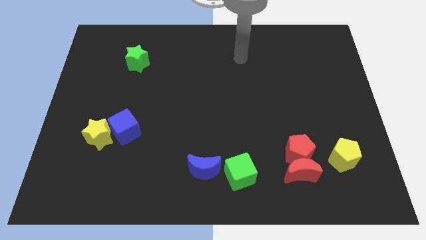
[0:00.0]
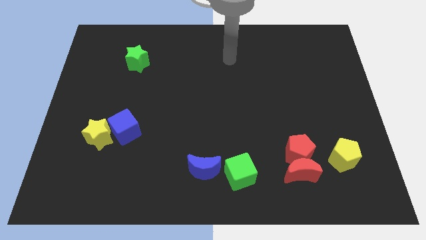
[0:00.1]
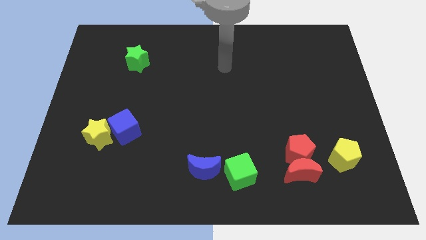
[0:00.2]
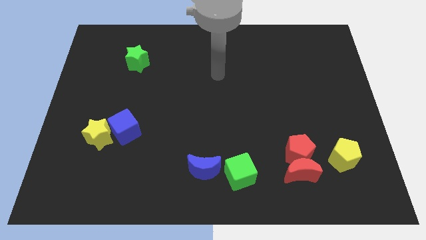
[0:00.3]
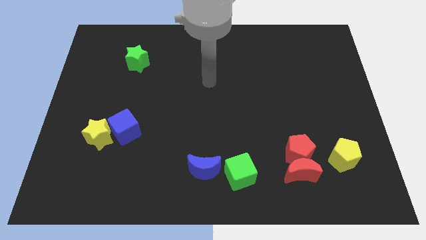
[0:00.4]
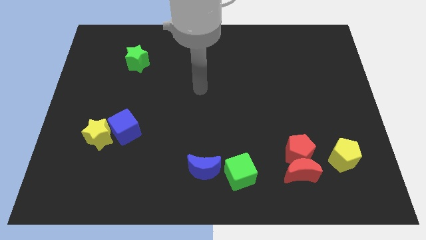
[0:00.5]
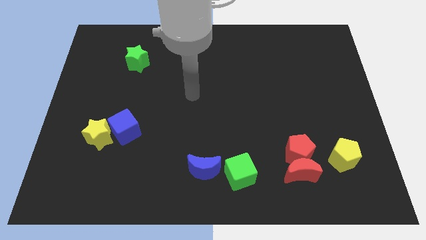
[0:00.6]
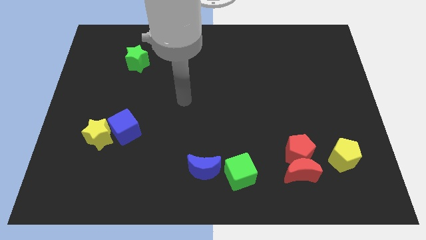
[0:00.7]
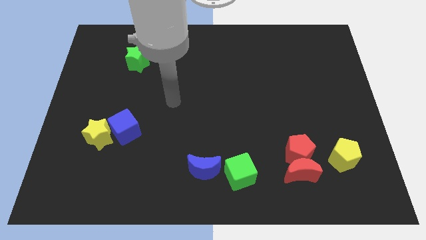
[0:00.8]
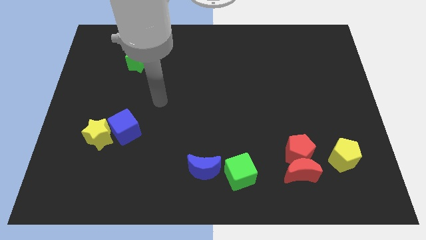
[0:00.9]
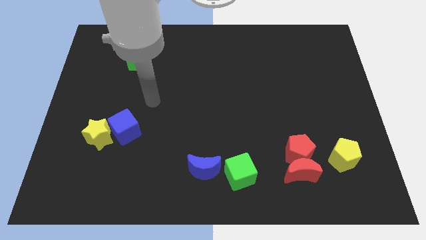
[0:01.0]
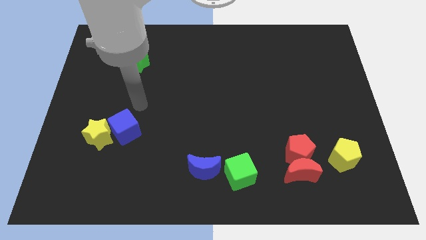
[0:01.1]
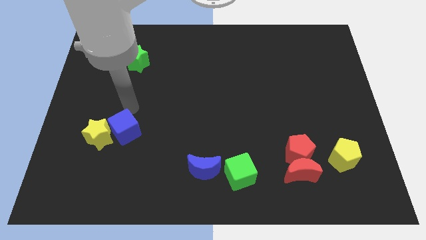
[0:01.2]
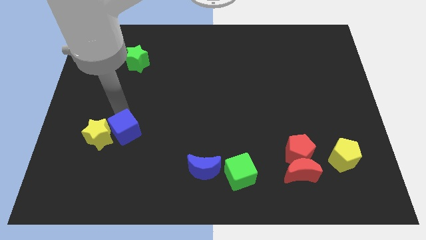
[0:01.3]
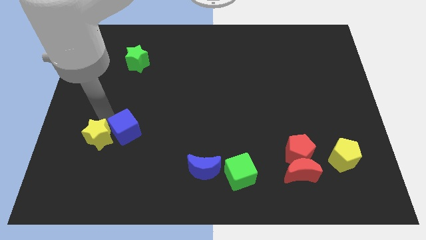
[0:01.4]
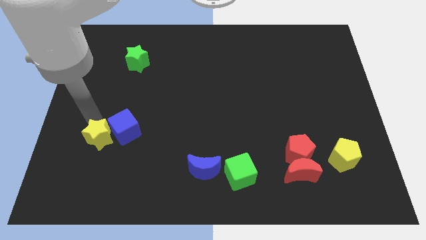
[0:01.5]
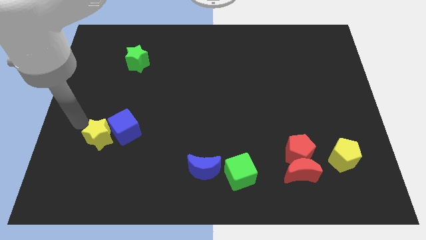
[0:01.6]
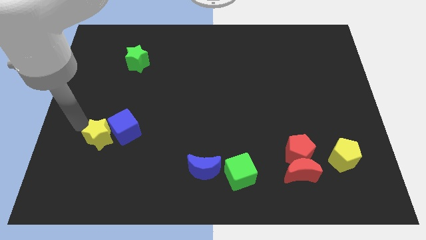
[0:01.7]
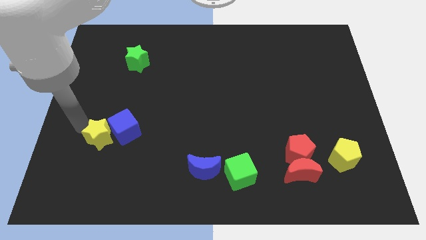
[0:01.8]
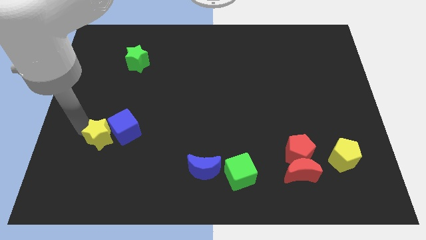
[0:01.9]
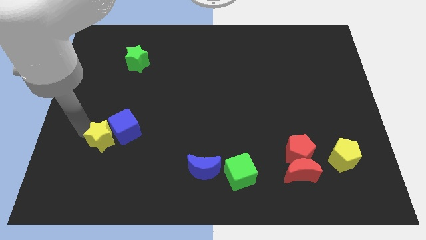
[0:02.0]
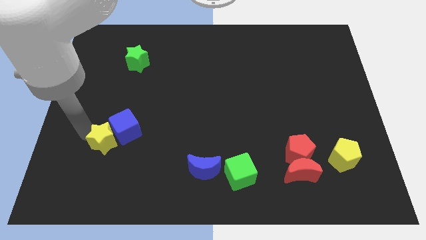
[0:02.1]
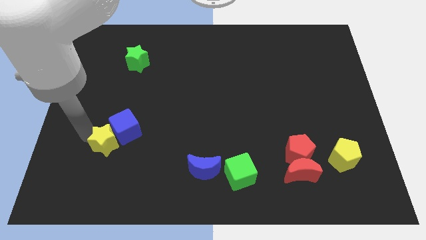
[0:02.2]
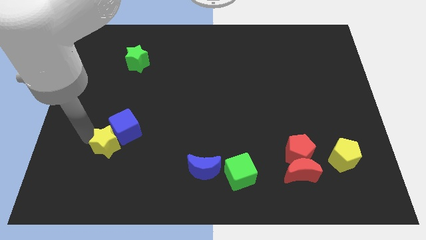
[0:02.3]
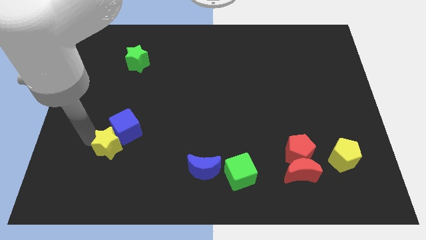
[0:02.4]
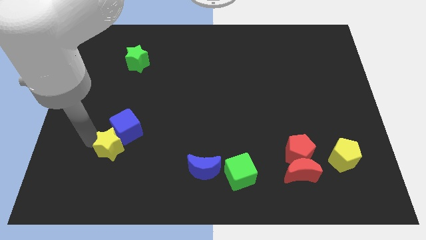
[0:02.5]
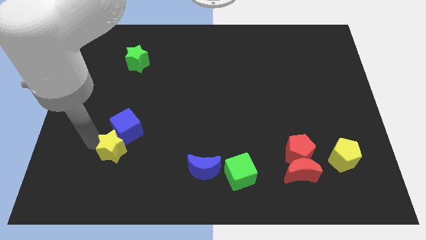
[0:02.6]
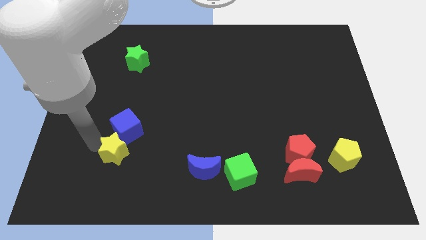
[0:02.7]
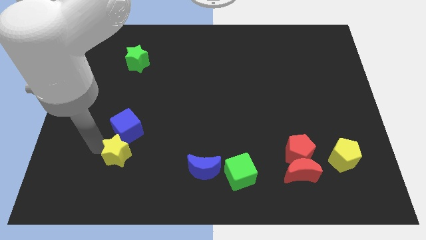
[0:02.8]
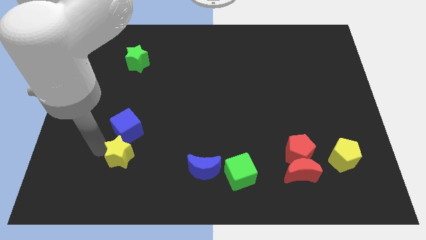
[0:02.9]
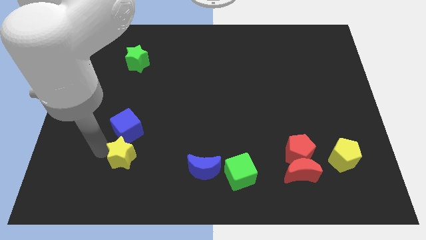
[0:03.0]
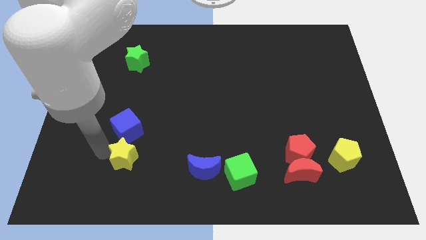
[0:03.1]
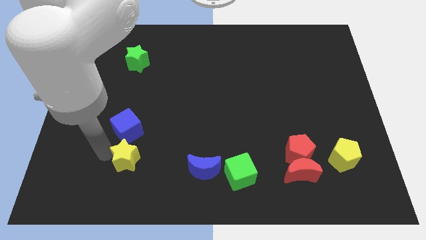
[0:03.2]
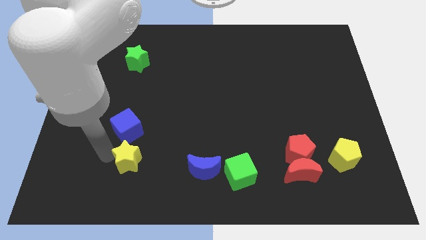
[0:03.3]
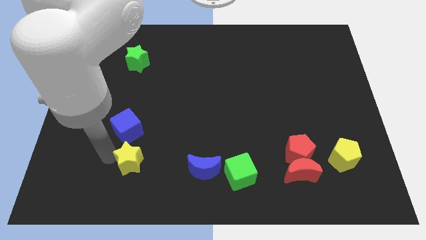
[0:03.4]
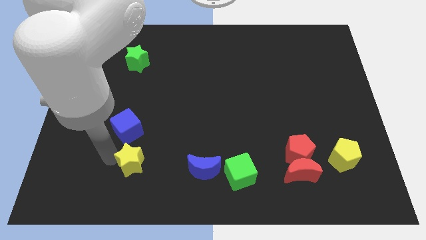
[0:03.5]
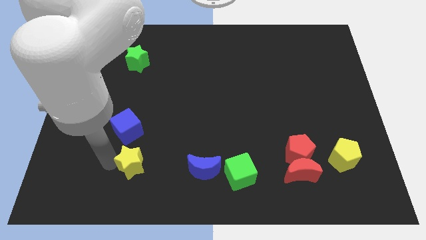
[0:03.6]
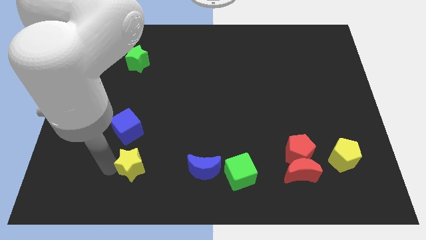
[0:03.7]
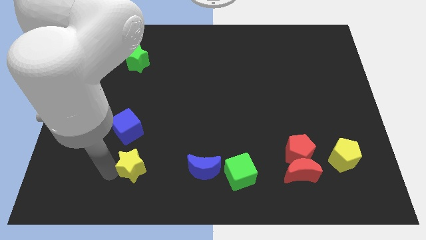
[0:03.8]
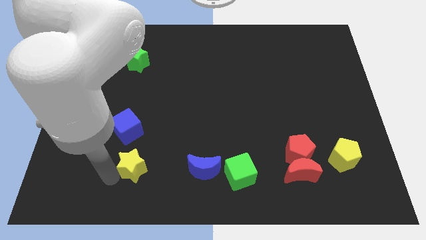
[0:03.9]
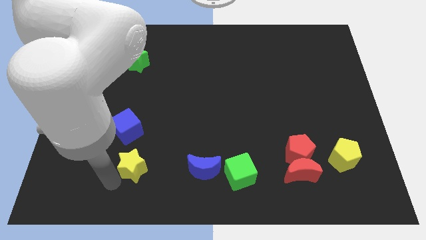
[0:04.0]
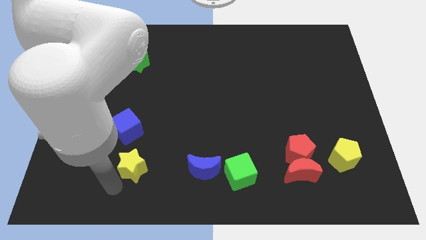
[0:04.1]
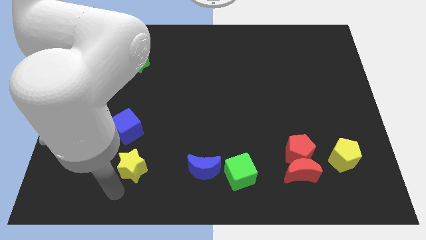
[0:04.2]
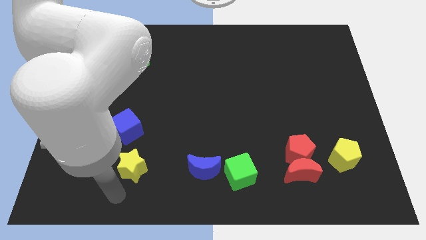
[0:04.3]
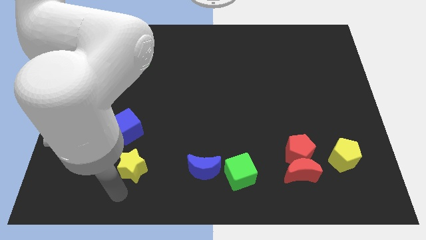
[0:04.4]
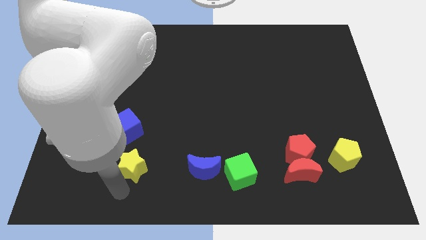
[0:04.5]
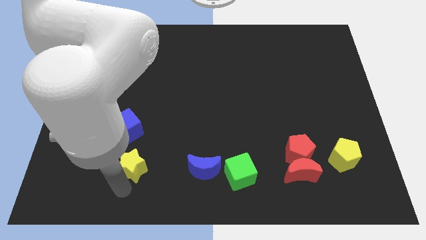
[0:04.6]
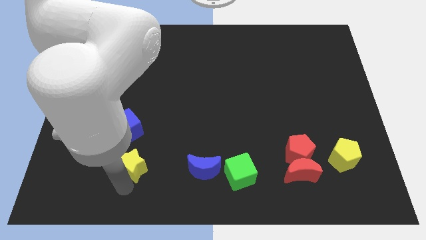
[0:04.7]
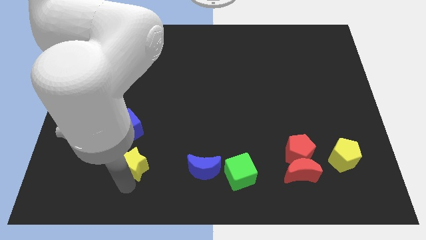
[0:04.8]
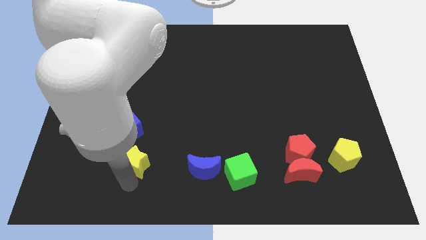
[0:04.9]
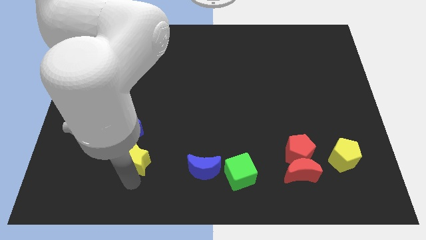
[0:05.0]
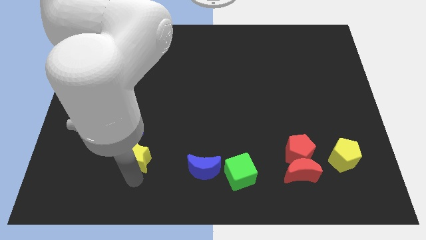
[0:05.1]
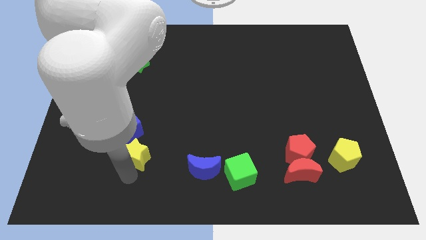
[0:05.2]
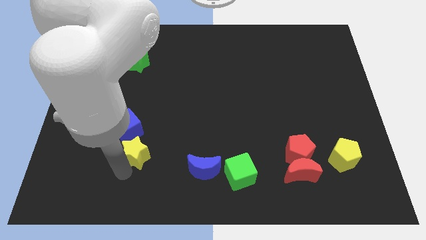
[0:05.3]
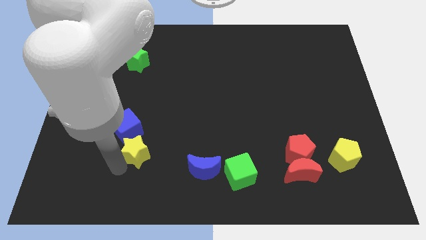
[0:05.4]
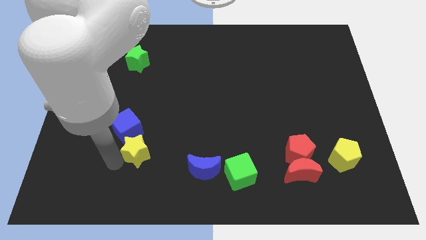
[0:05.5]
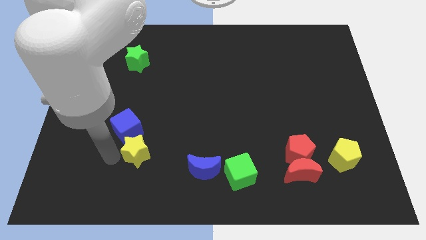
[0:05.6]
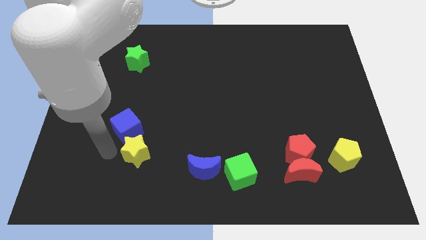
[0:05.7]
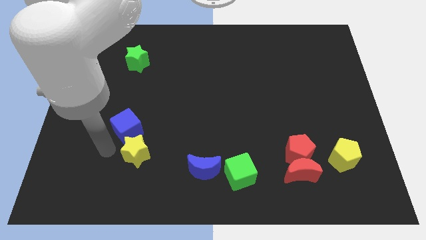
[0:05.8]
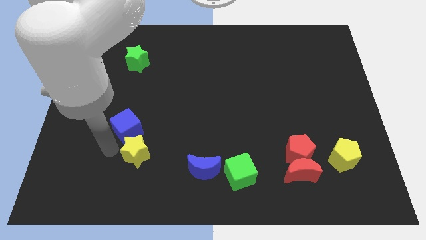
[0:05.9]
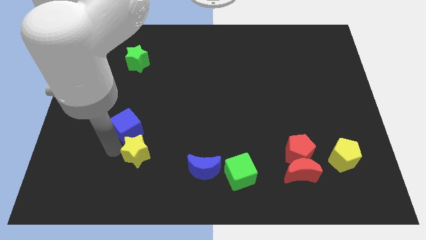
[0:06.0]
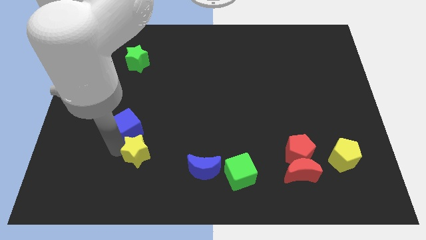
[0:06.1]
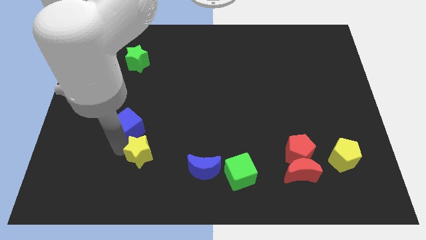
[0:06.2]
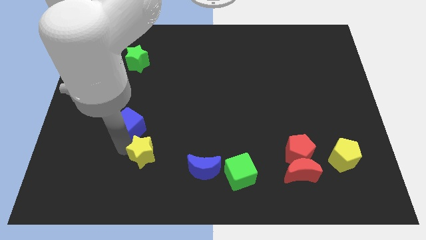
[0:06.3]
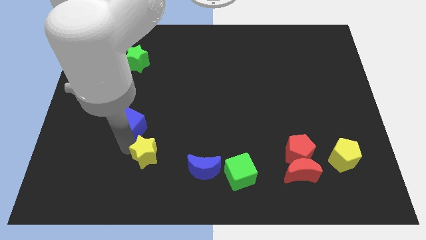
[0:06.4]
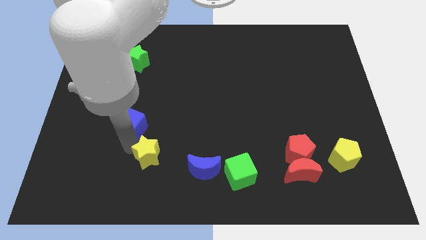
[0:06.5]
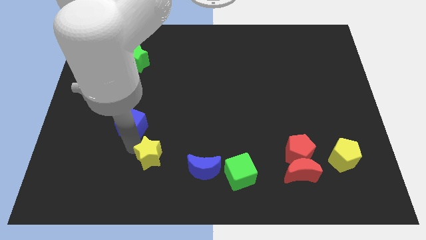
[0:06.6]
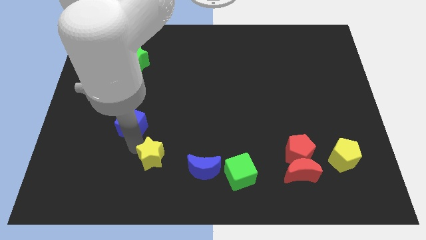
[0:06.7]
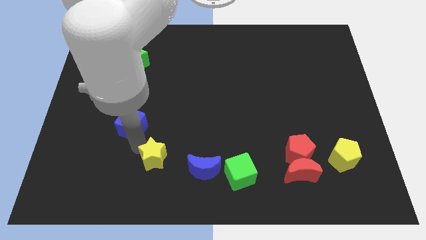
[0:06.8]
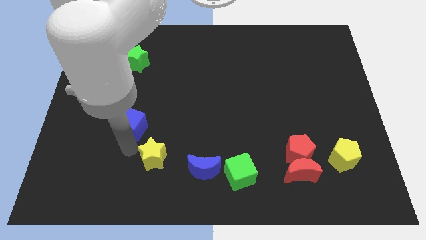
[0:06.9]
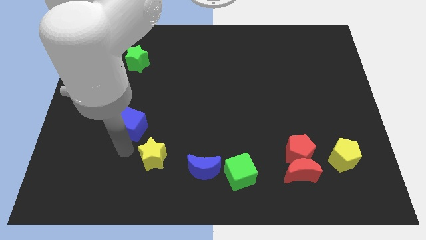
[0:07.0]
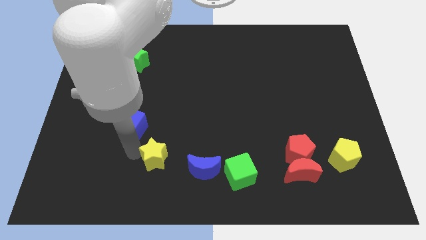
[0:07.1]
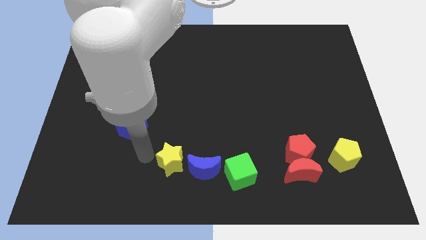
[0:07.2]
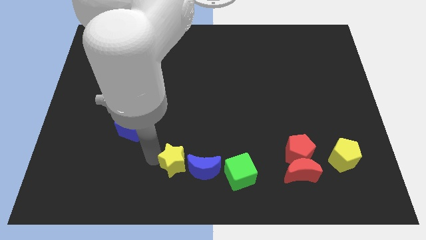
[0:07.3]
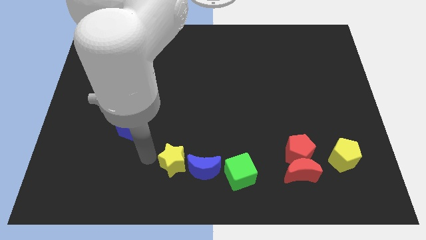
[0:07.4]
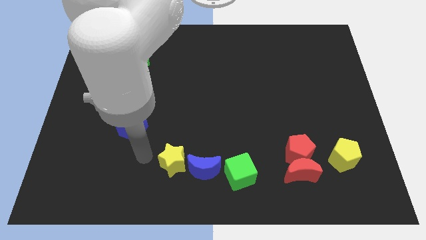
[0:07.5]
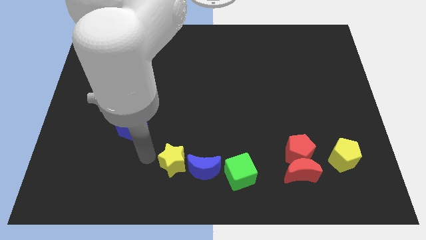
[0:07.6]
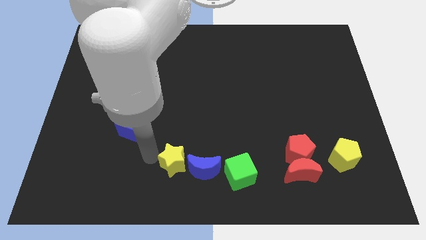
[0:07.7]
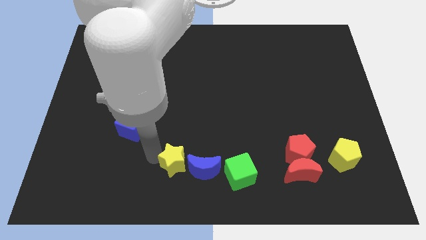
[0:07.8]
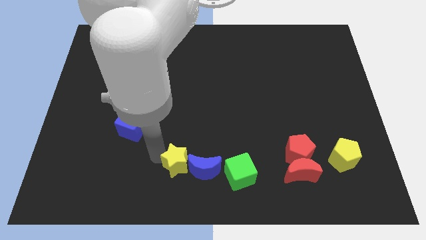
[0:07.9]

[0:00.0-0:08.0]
push the yellow star to the blue moon
